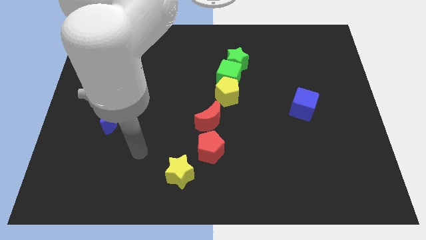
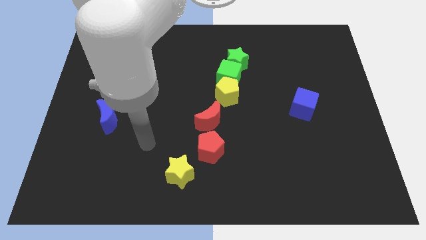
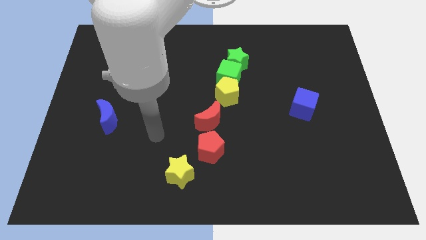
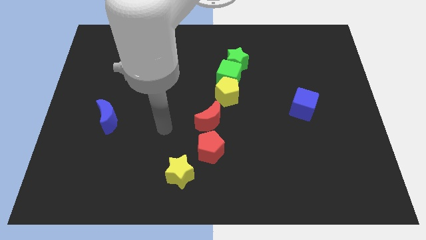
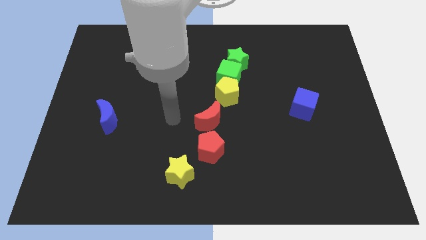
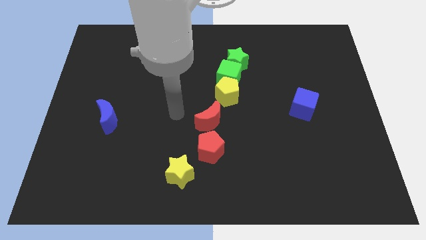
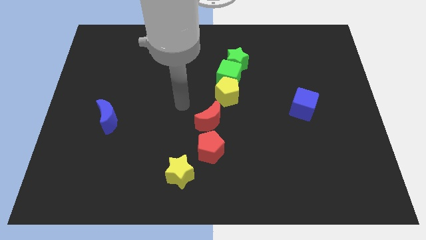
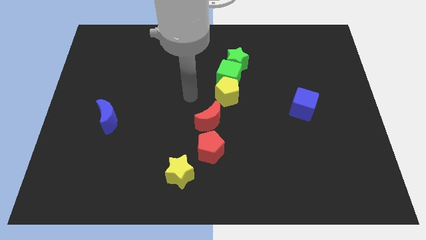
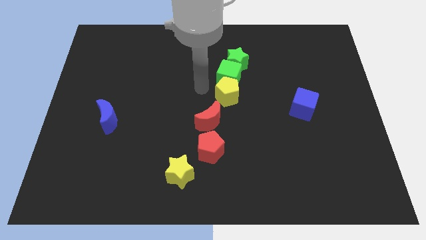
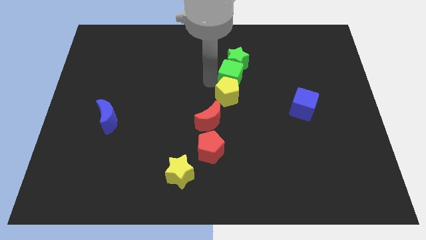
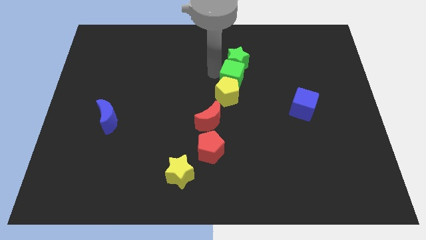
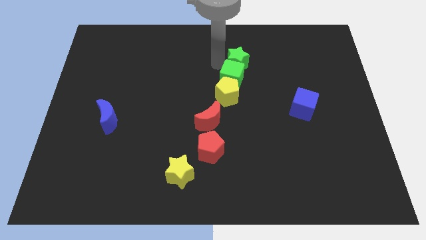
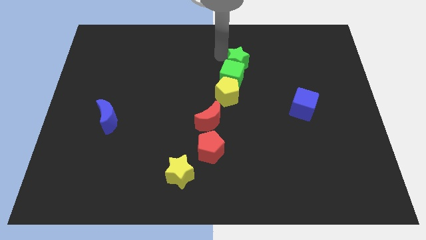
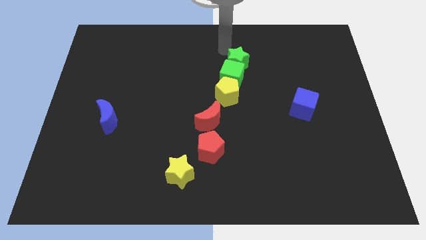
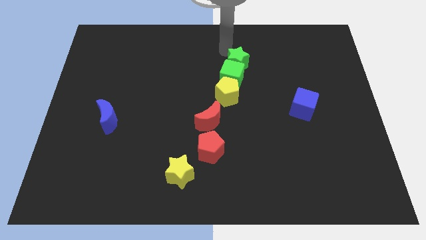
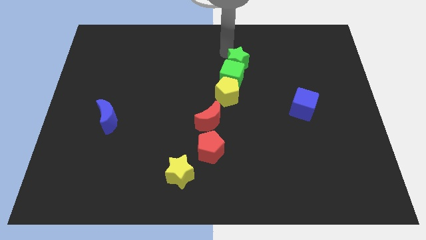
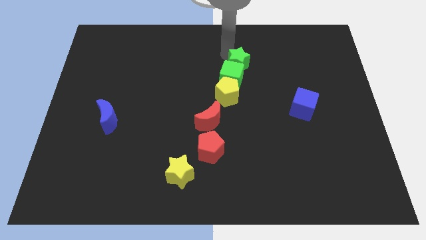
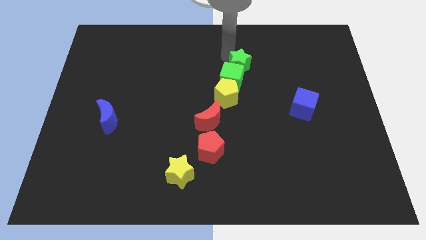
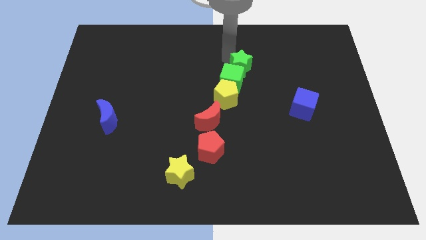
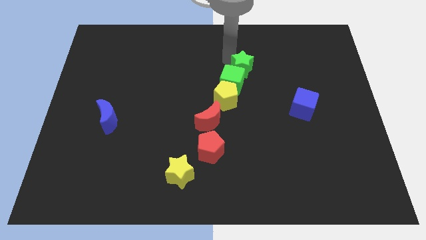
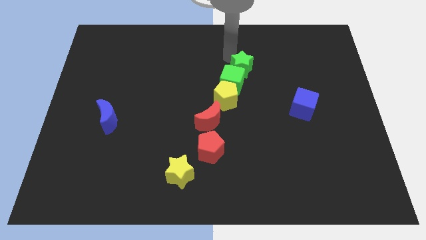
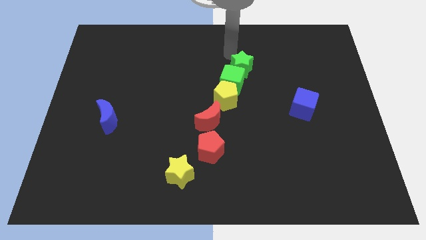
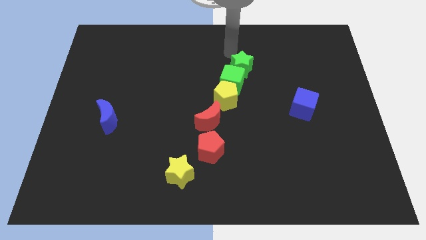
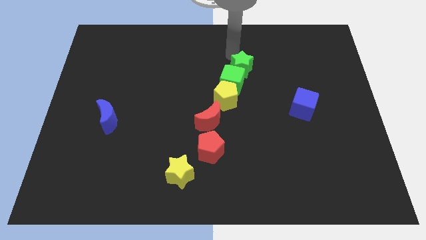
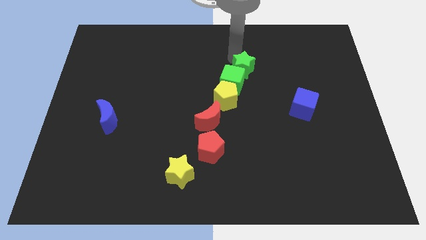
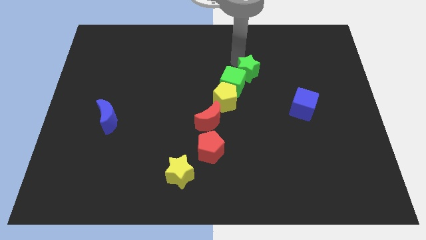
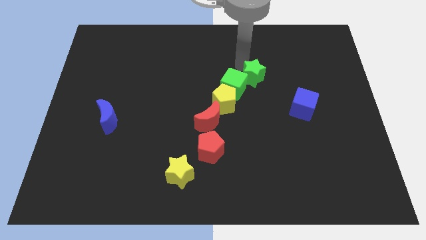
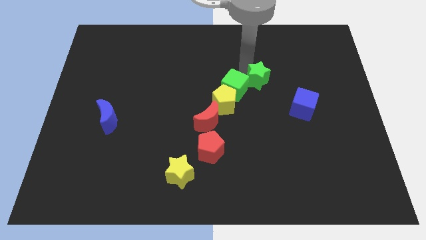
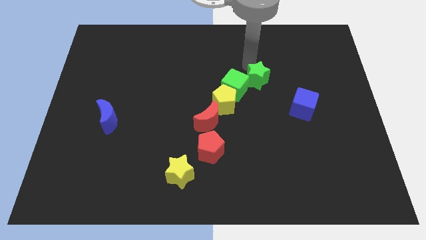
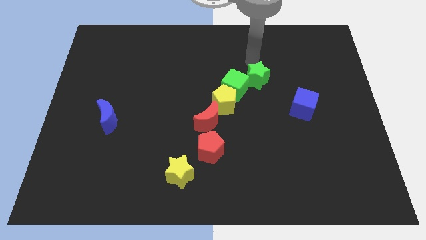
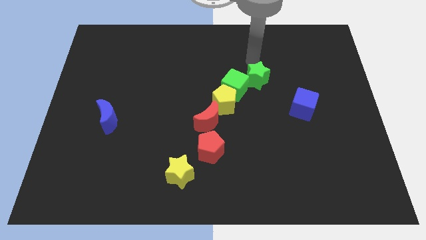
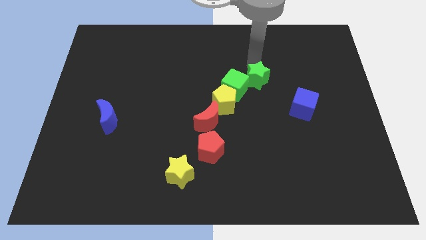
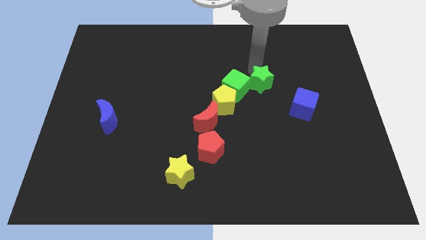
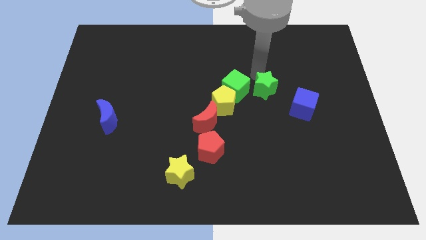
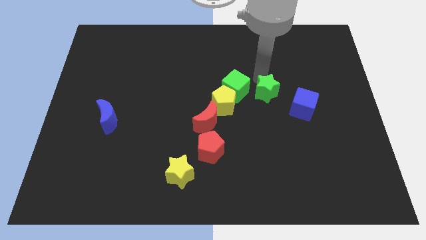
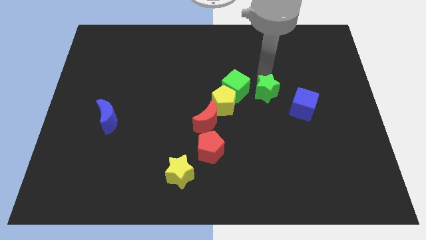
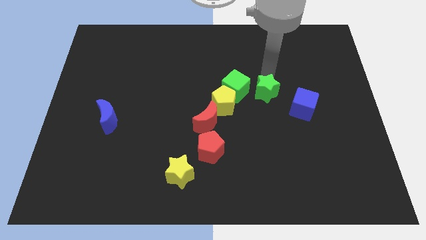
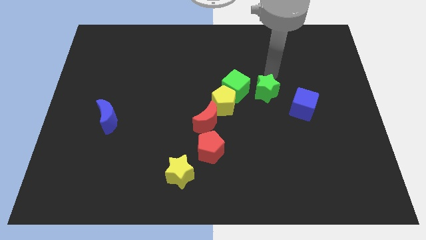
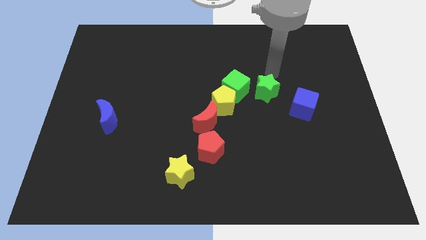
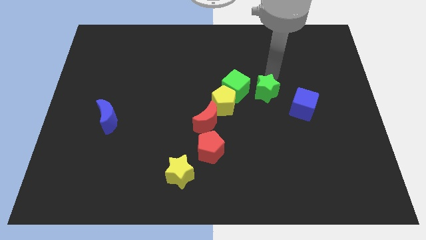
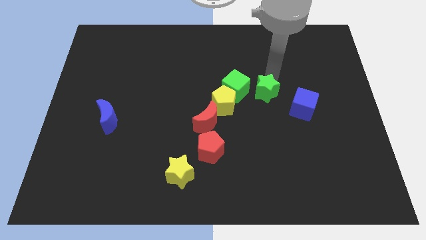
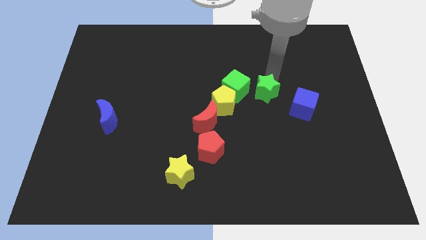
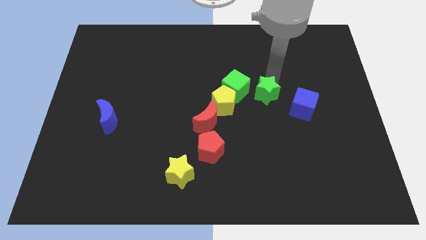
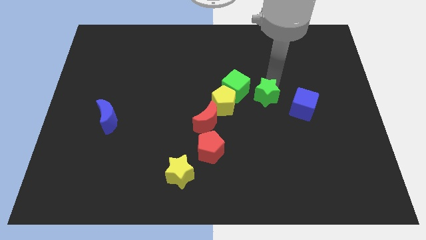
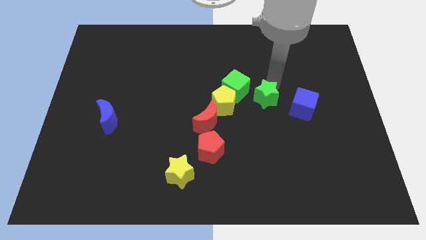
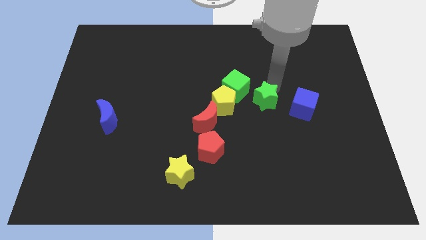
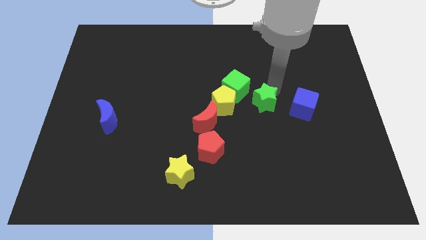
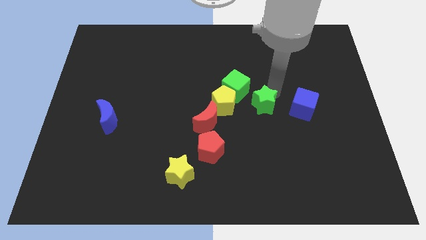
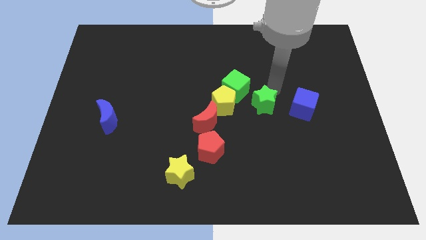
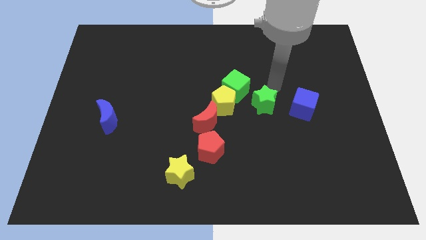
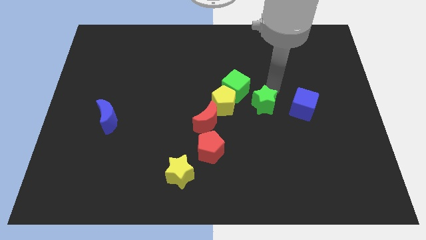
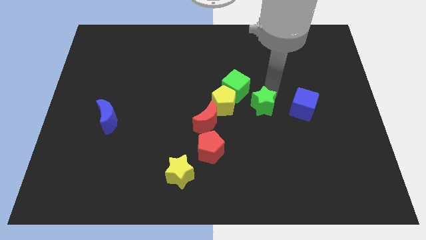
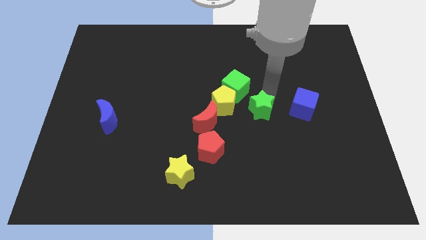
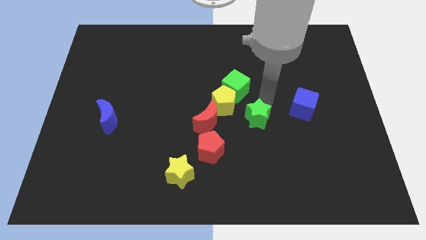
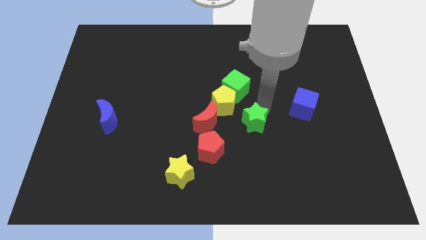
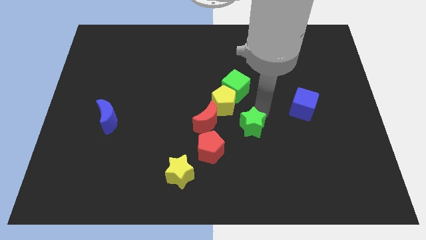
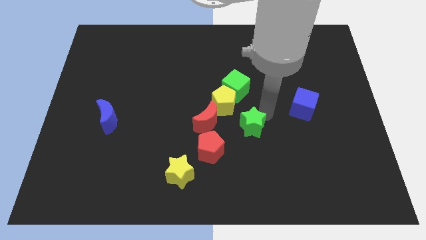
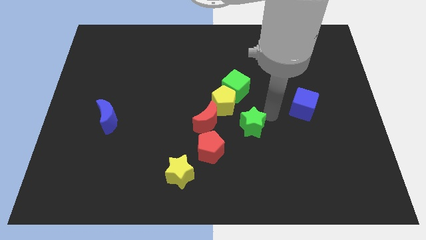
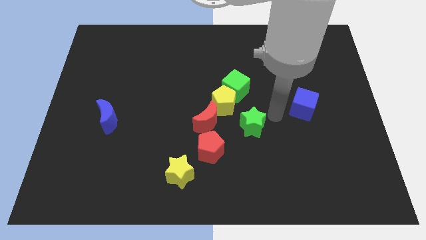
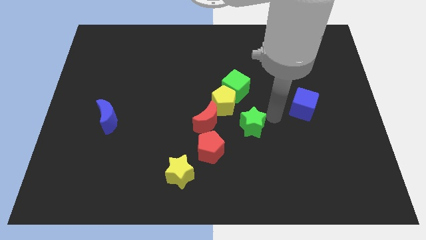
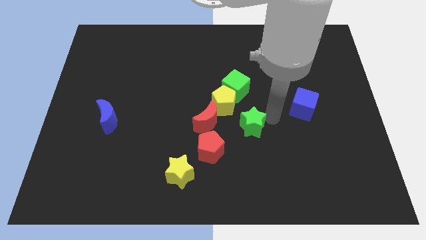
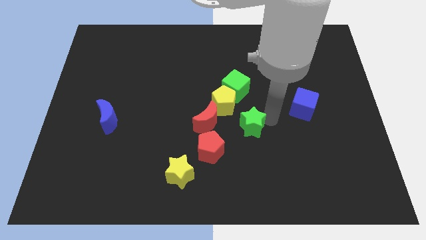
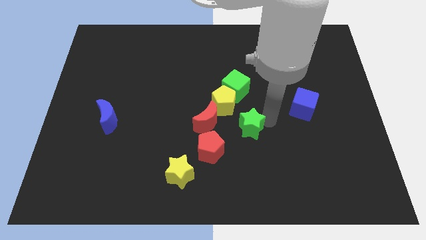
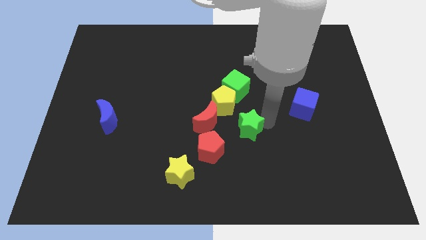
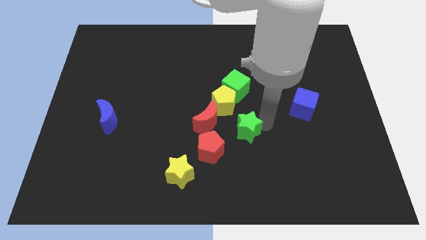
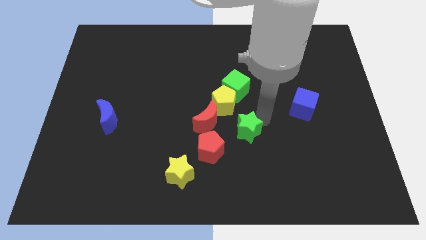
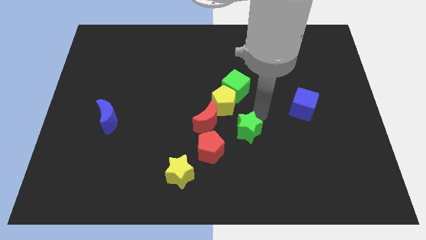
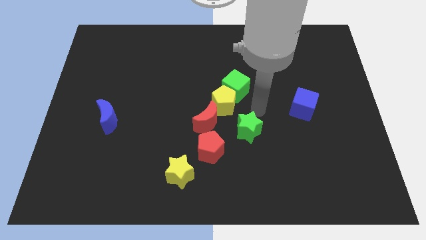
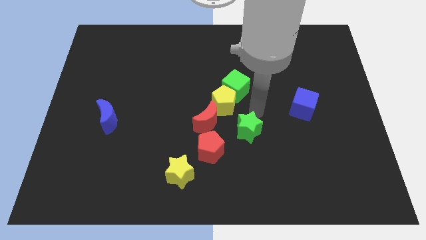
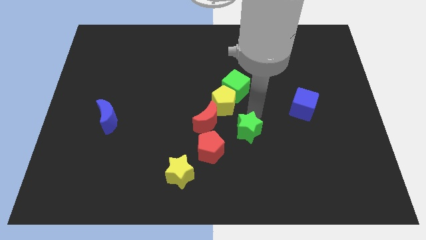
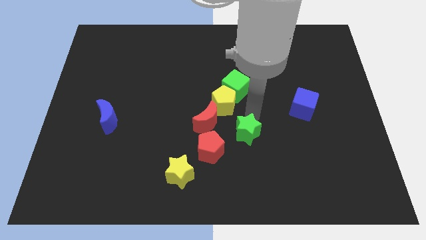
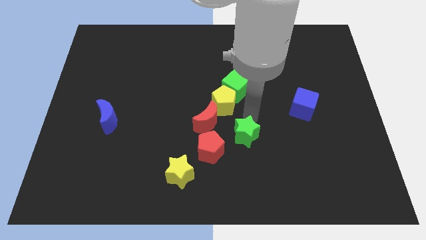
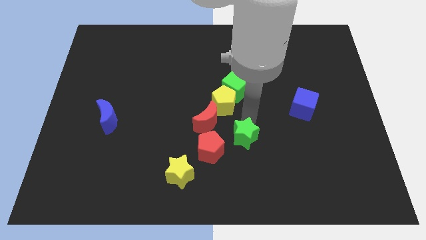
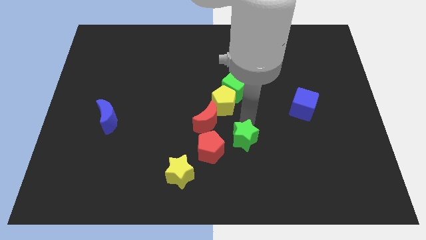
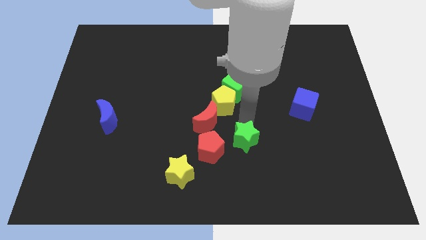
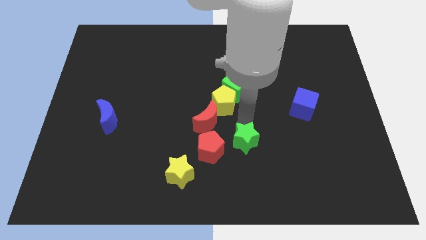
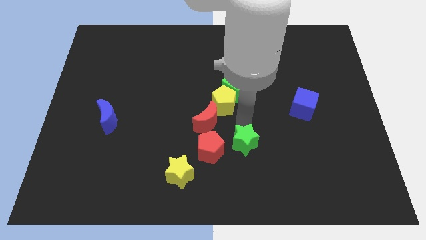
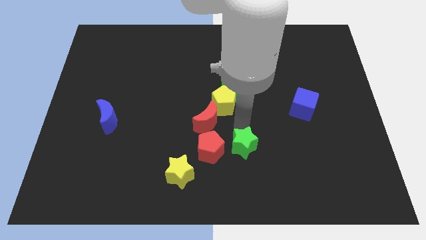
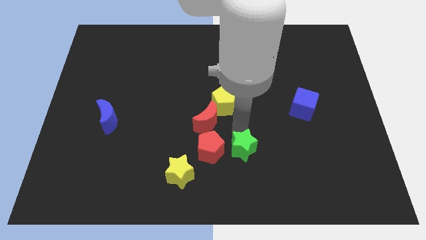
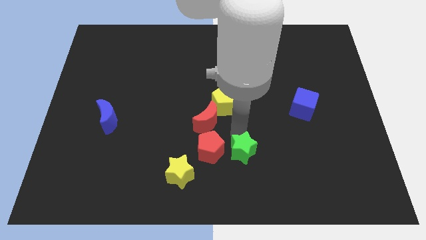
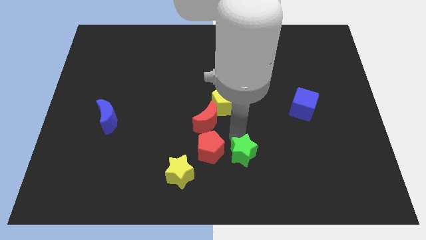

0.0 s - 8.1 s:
put the green star to the right side of the yellow star
